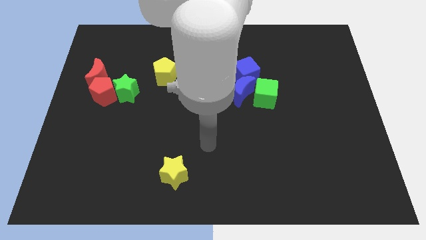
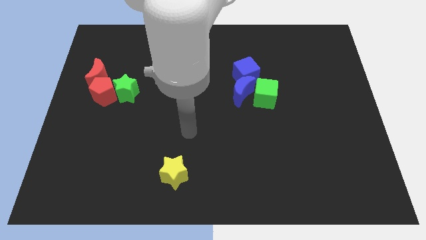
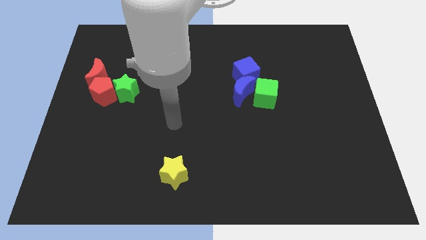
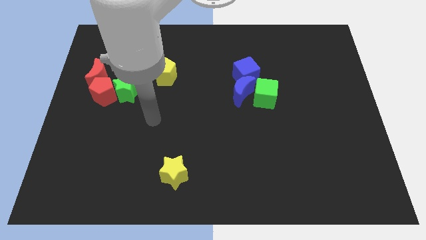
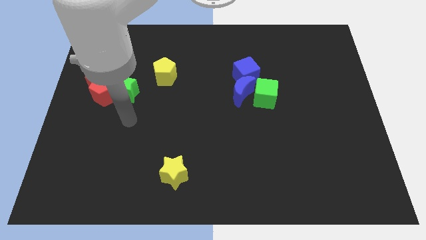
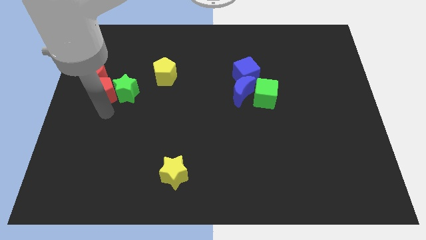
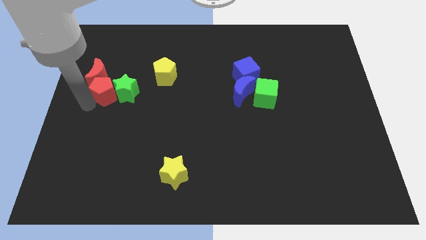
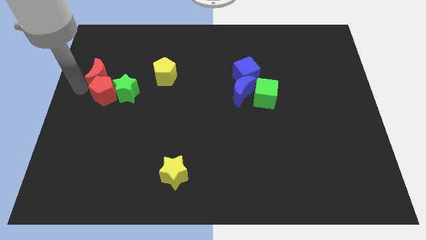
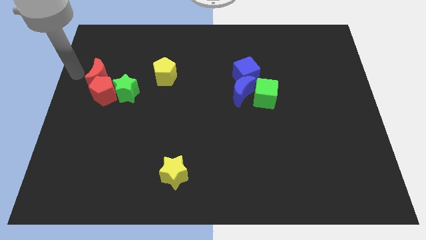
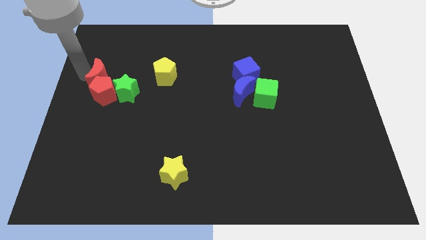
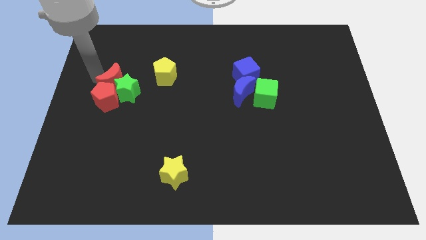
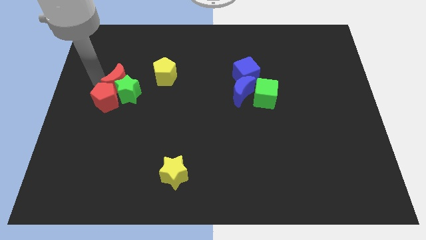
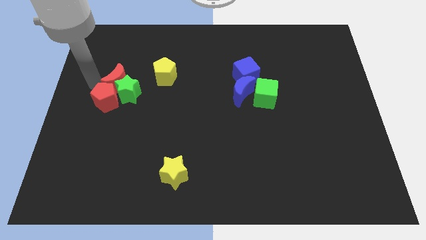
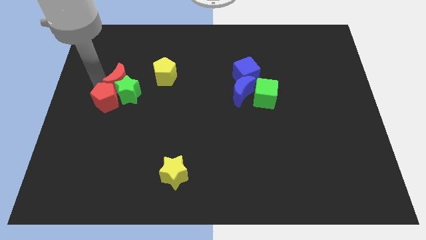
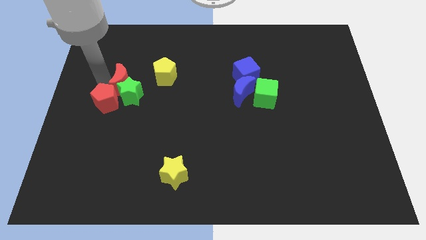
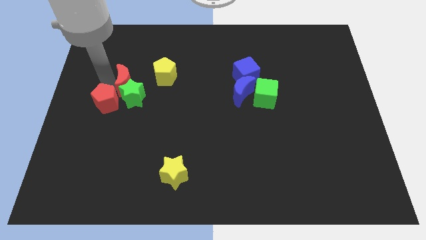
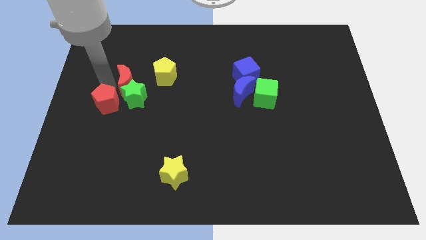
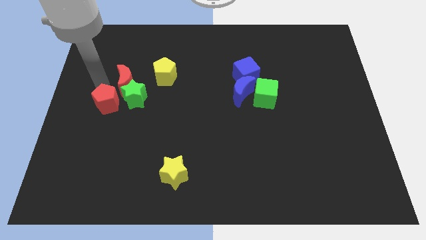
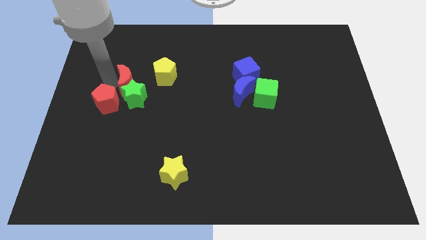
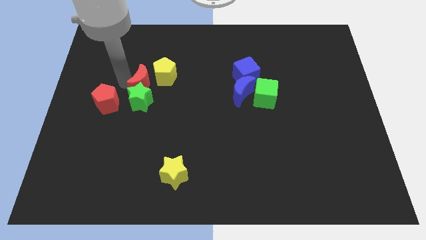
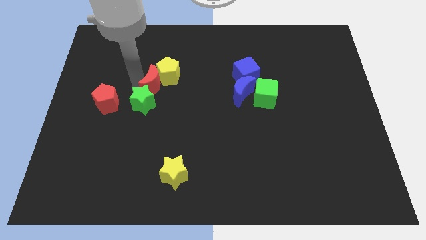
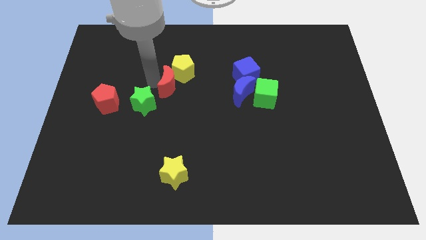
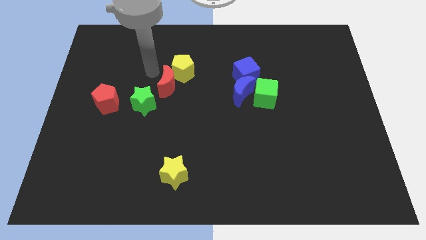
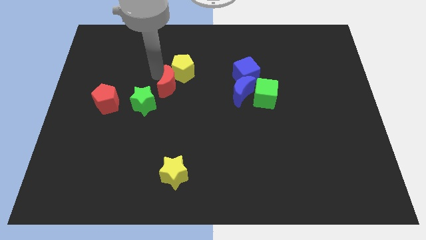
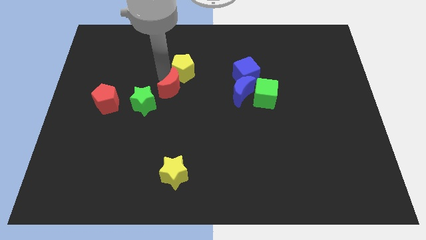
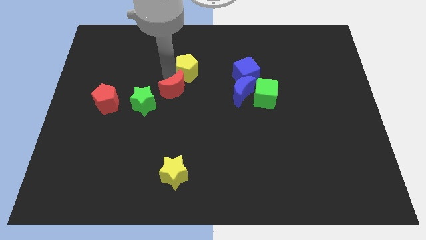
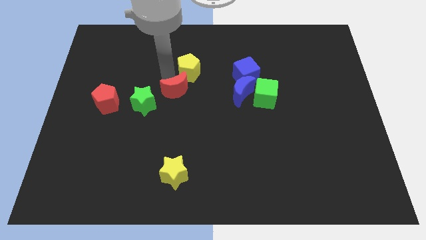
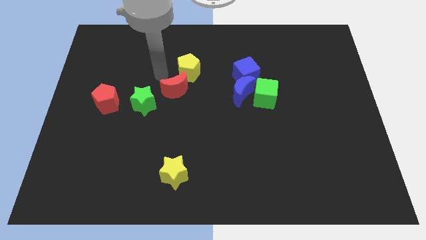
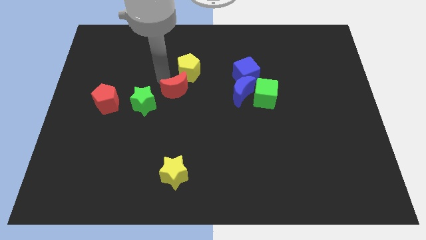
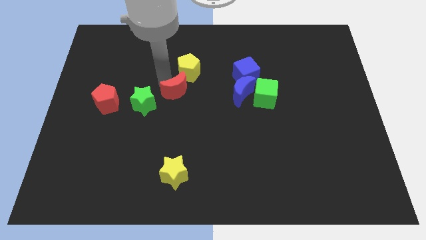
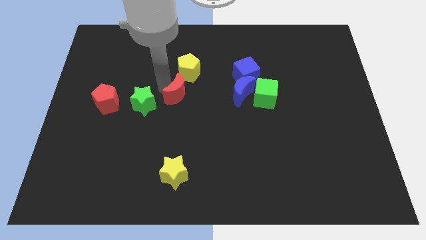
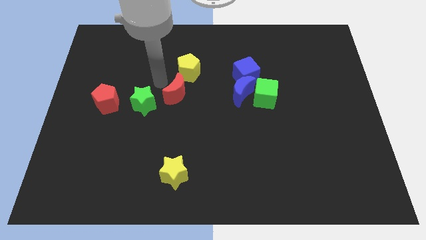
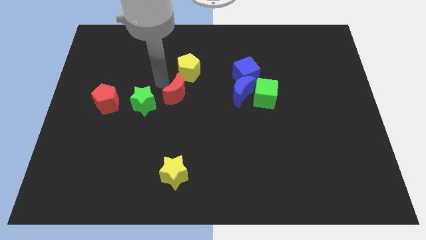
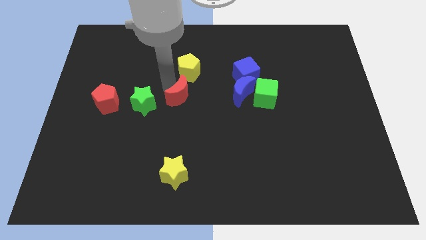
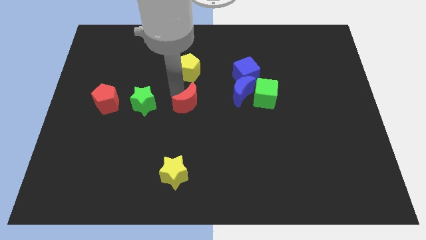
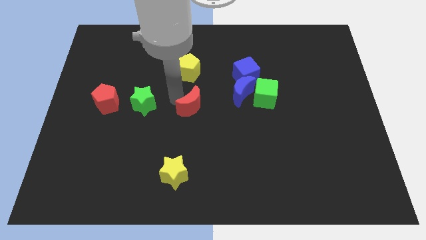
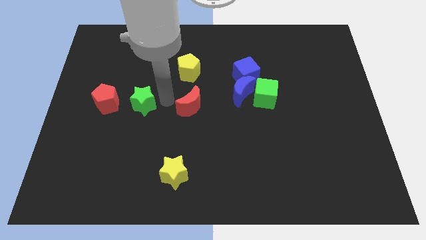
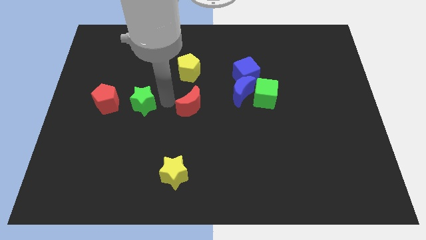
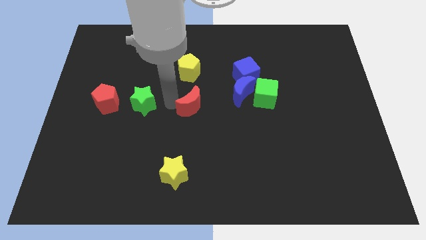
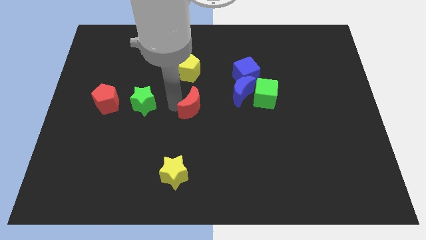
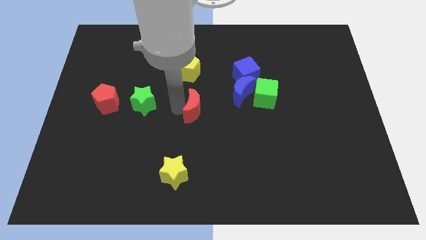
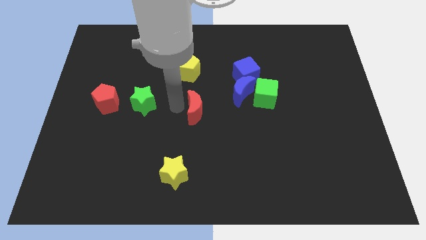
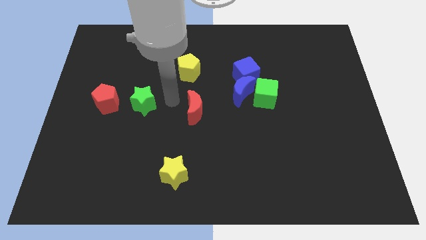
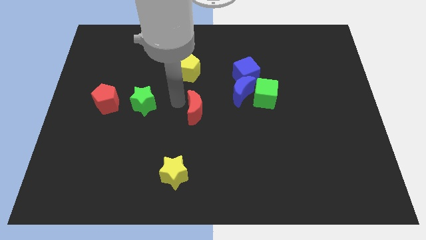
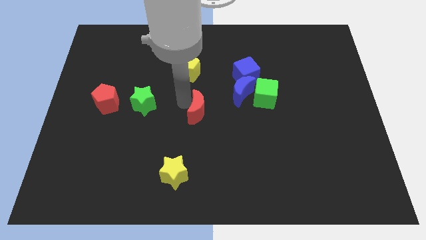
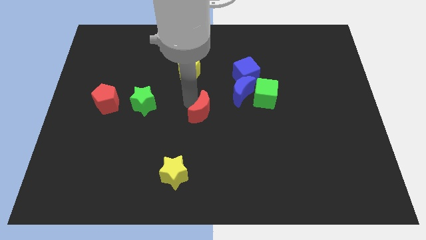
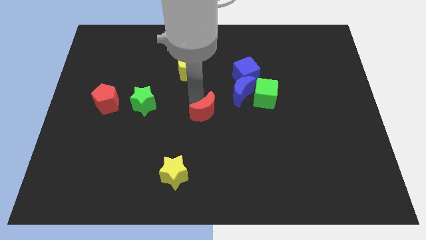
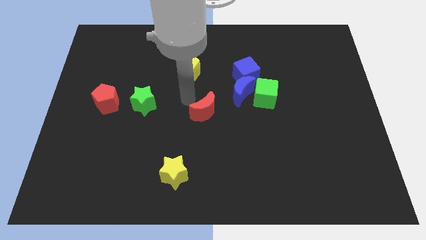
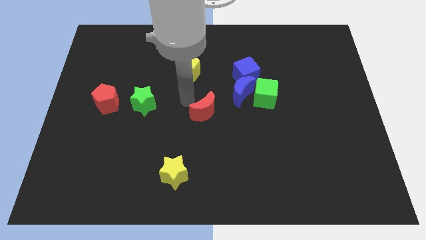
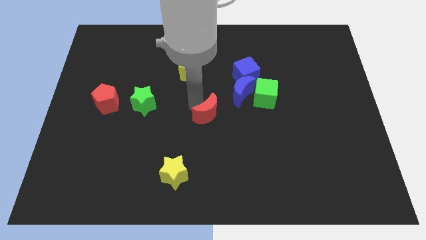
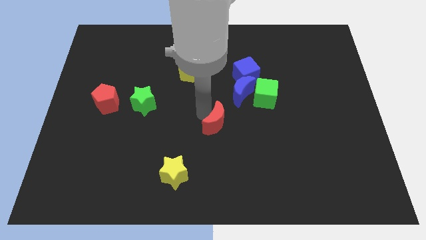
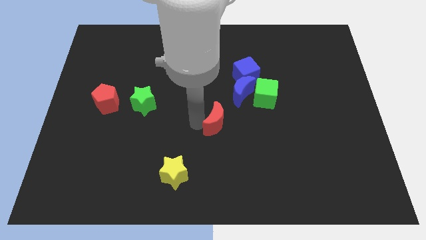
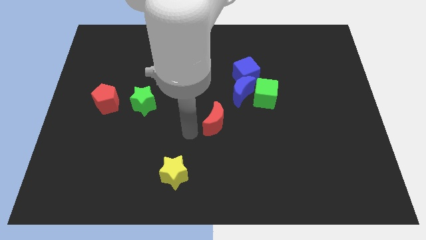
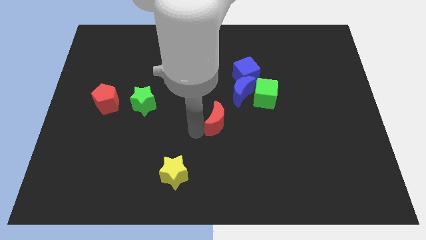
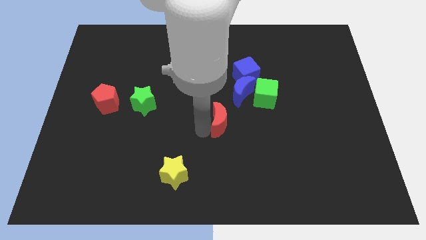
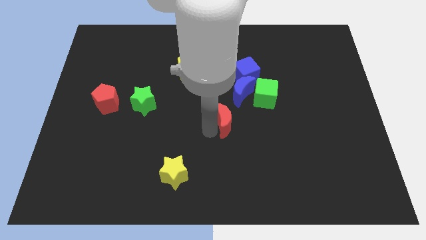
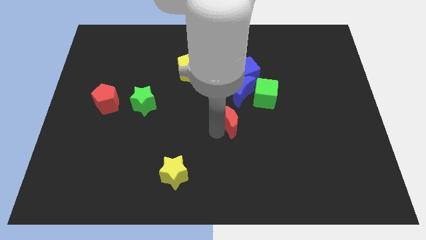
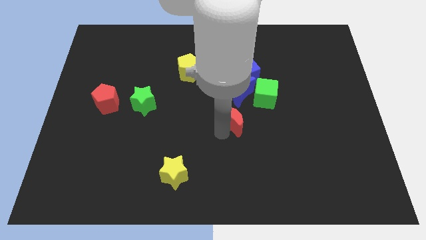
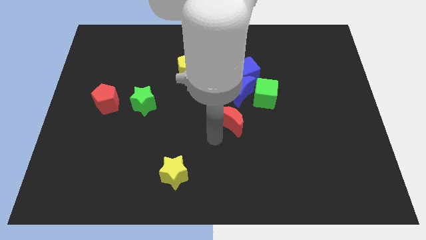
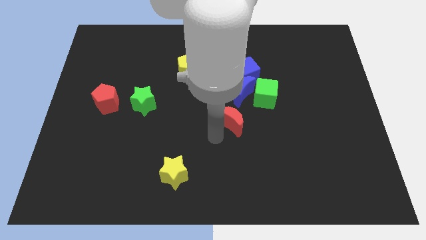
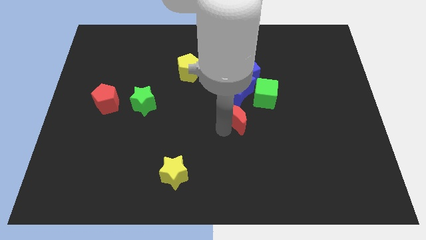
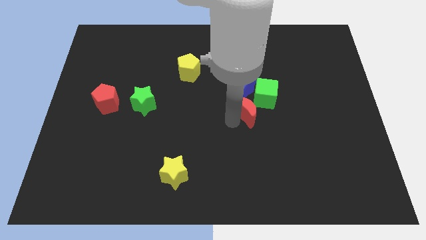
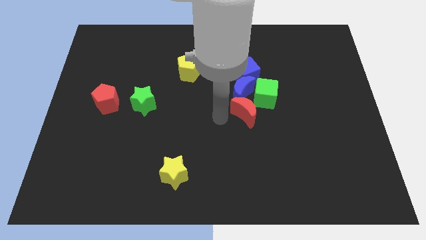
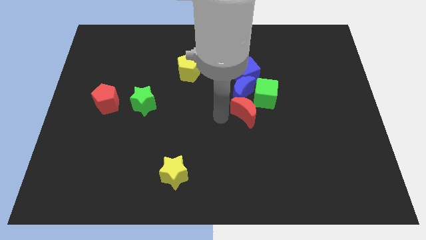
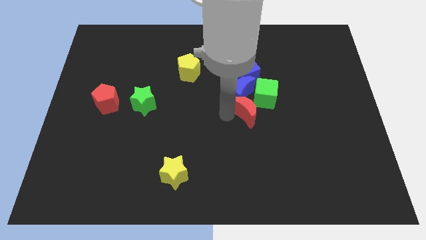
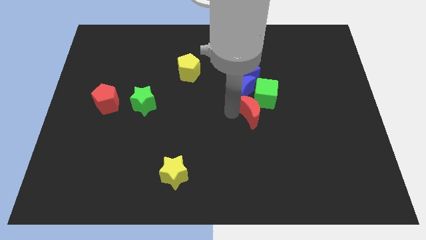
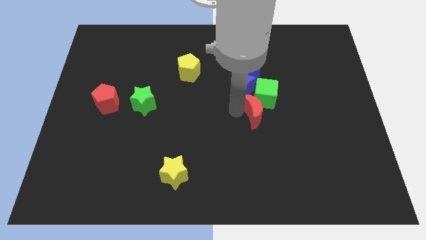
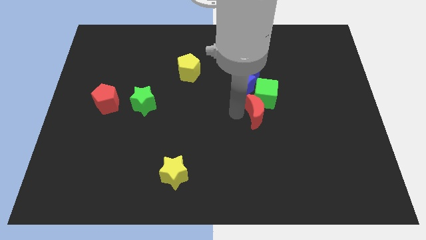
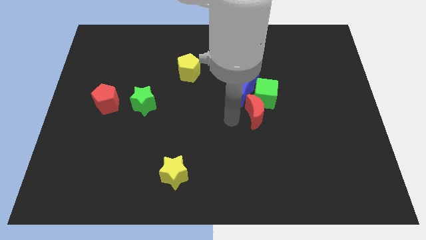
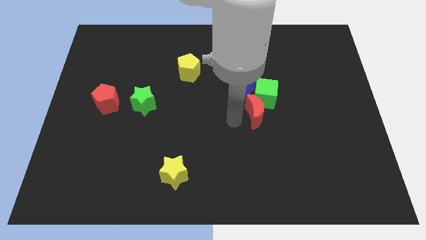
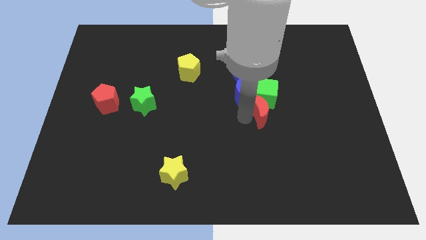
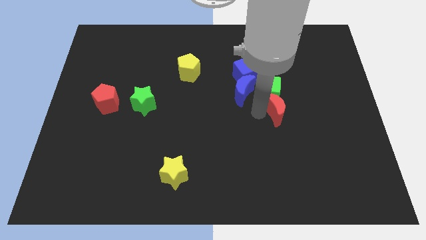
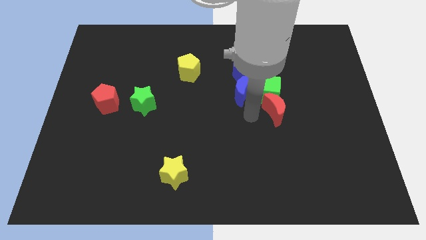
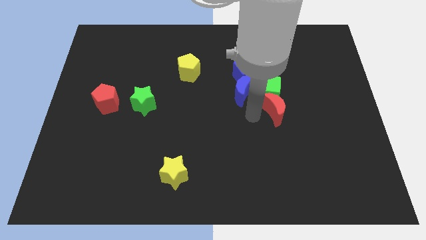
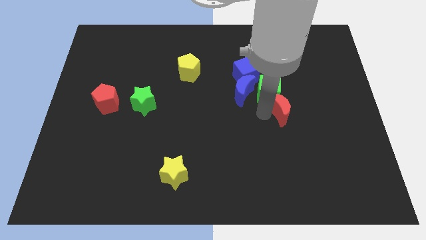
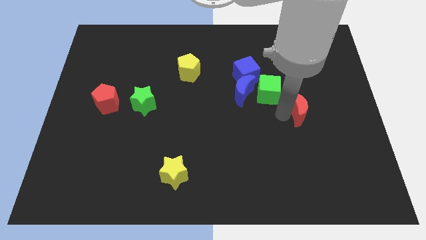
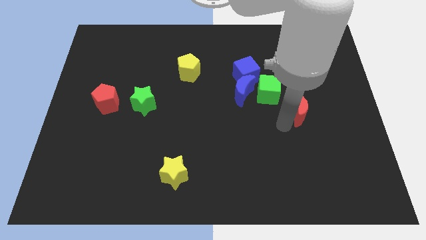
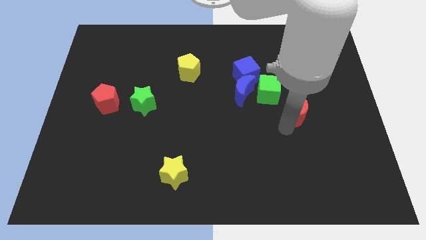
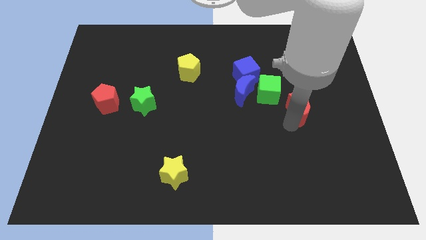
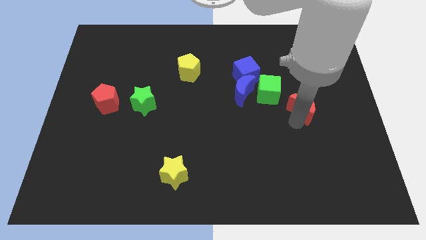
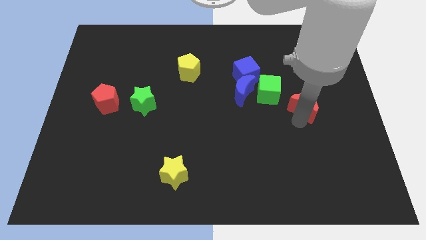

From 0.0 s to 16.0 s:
slide the red moon to the right side of the green cube
